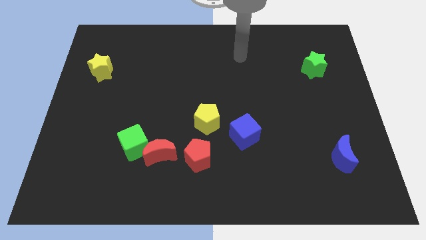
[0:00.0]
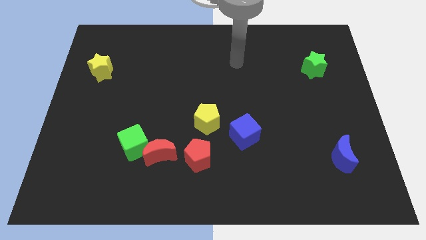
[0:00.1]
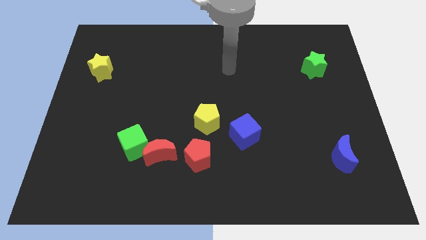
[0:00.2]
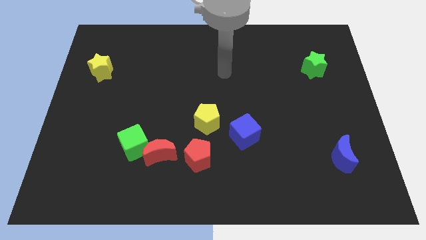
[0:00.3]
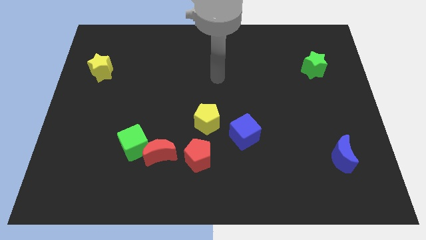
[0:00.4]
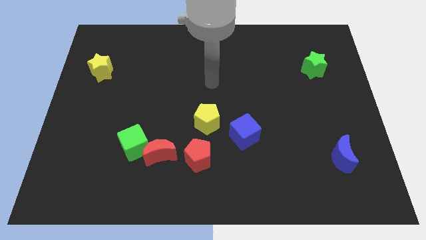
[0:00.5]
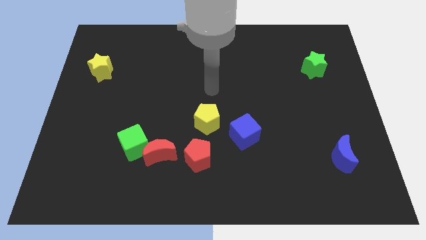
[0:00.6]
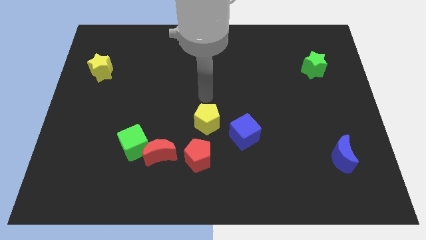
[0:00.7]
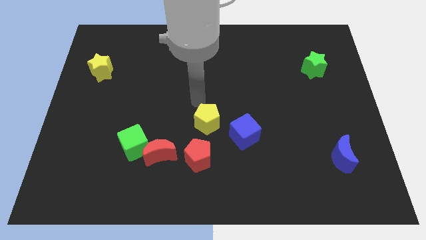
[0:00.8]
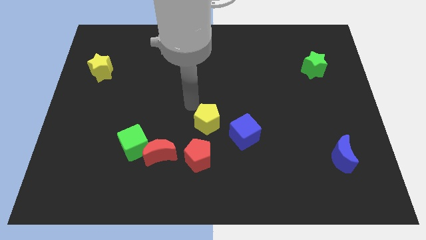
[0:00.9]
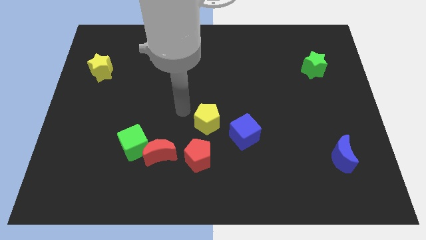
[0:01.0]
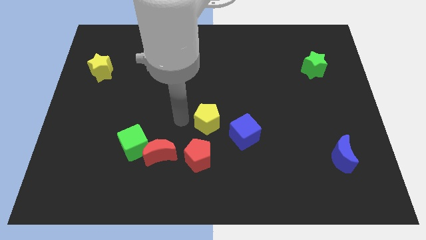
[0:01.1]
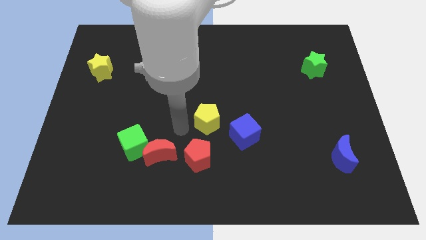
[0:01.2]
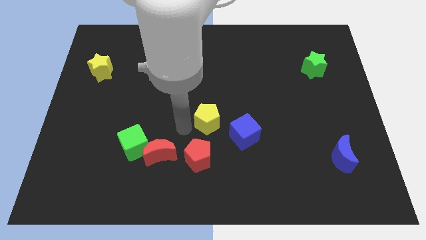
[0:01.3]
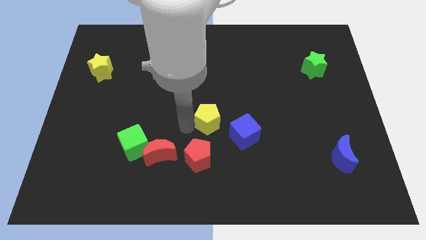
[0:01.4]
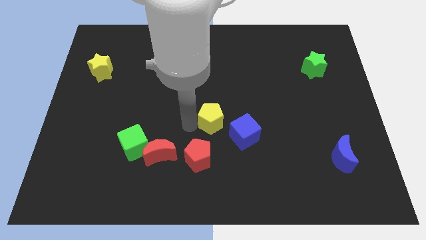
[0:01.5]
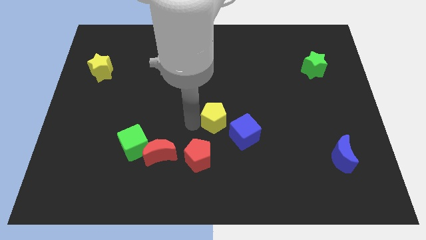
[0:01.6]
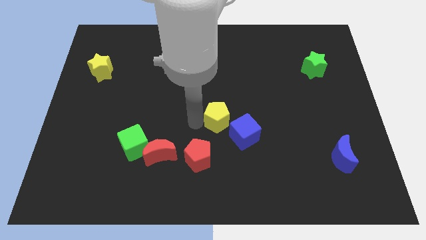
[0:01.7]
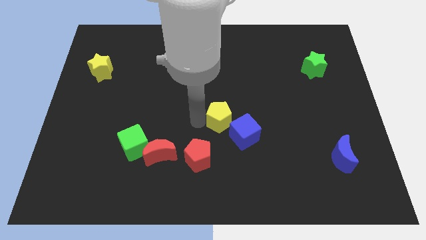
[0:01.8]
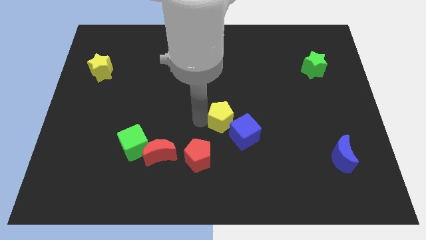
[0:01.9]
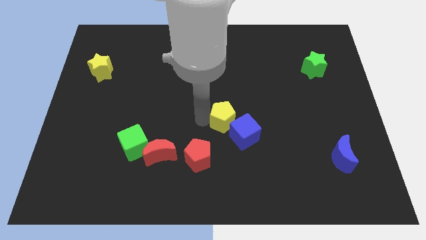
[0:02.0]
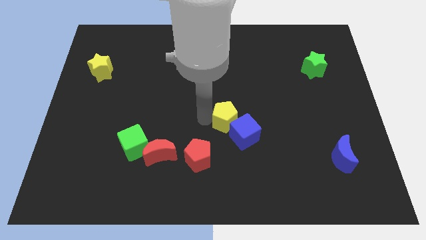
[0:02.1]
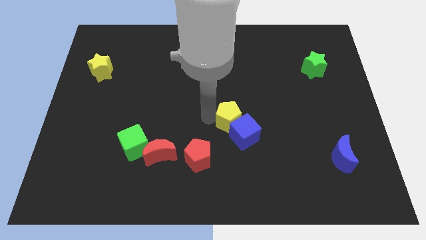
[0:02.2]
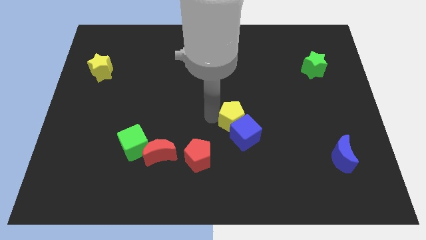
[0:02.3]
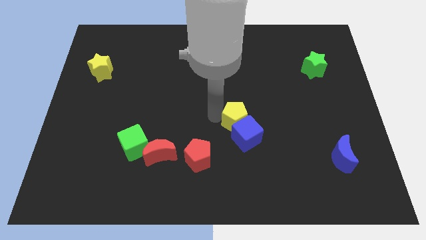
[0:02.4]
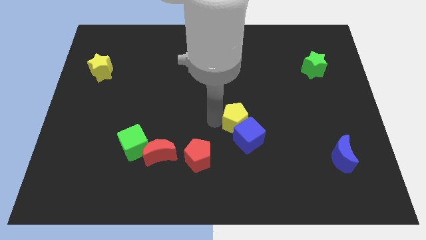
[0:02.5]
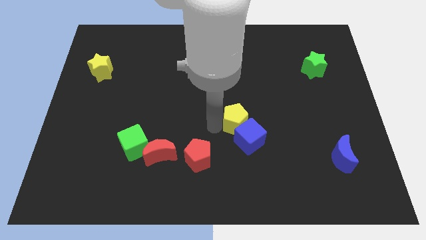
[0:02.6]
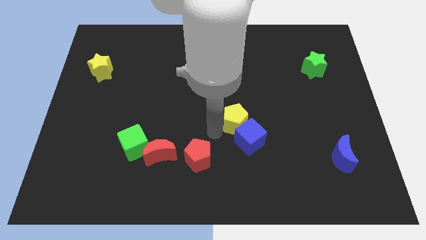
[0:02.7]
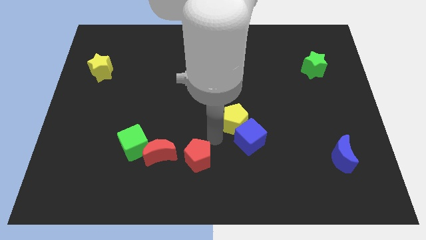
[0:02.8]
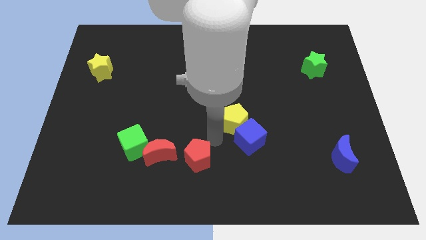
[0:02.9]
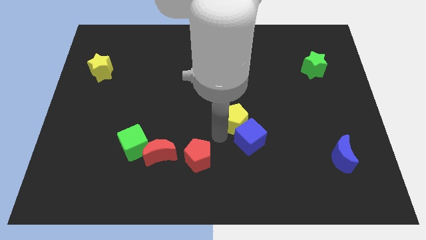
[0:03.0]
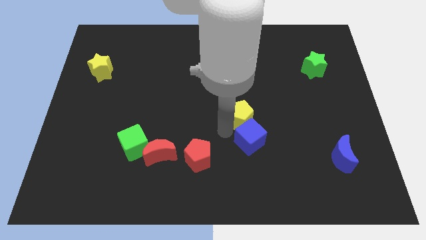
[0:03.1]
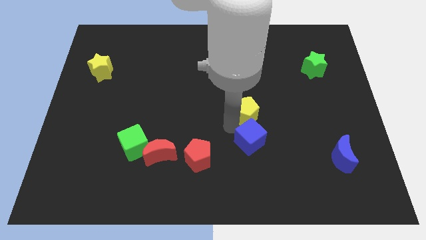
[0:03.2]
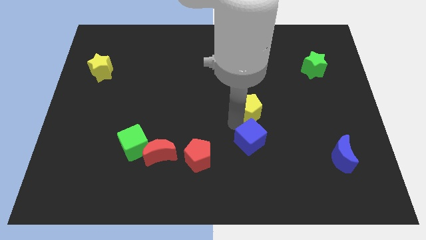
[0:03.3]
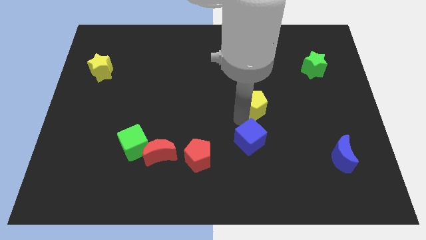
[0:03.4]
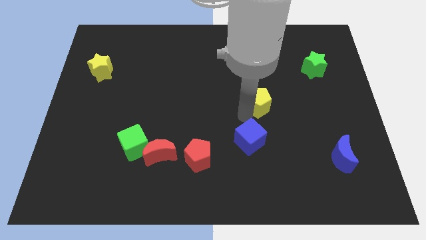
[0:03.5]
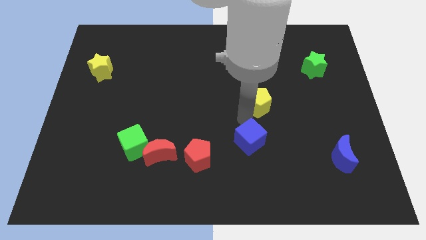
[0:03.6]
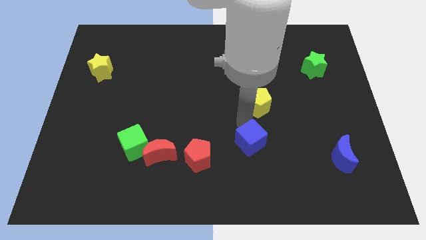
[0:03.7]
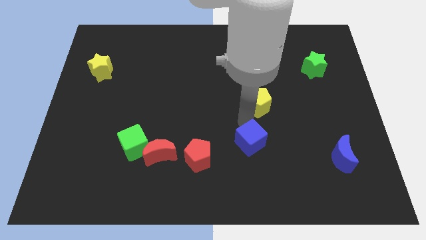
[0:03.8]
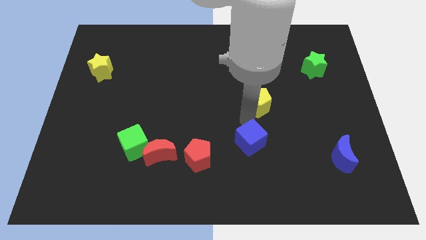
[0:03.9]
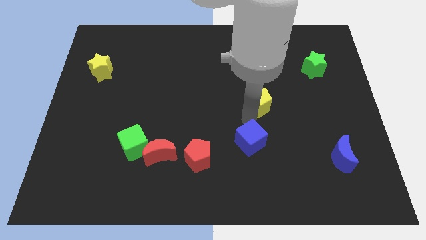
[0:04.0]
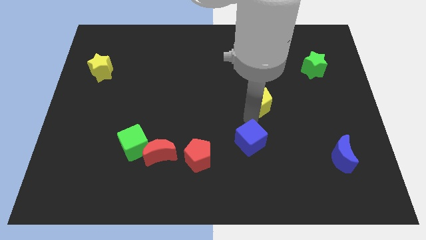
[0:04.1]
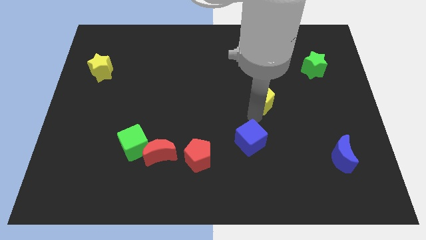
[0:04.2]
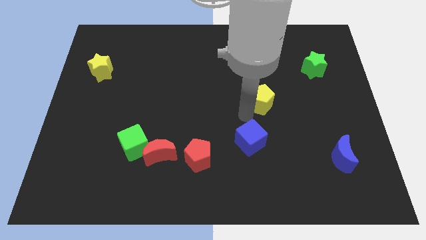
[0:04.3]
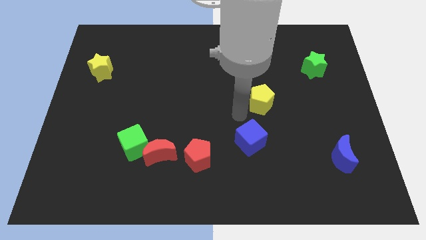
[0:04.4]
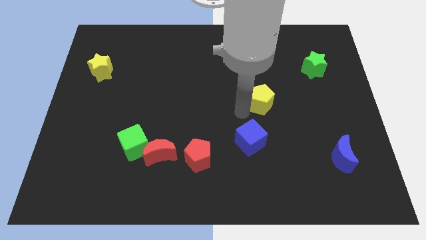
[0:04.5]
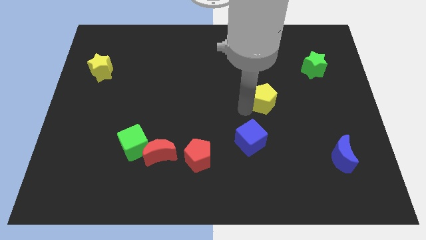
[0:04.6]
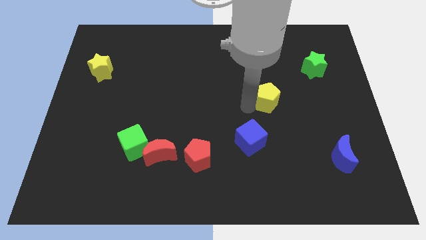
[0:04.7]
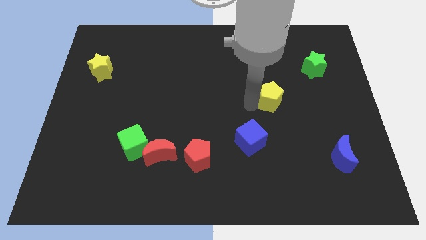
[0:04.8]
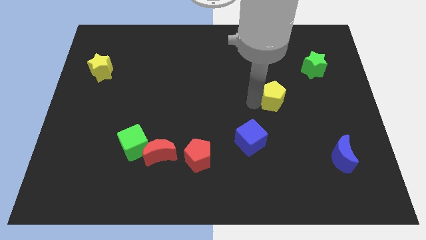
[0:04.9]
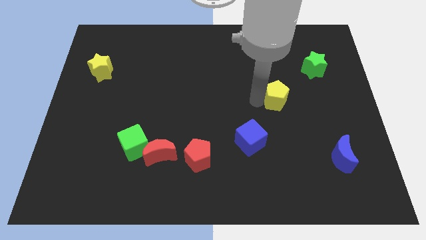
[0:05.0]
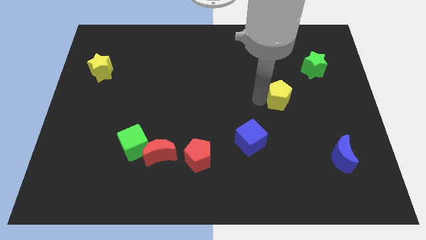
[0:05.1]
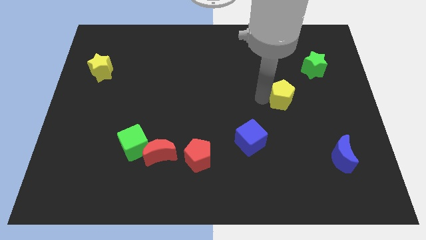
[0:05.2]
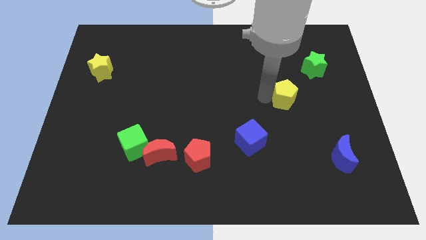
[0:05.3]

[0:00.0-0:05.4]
slide the yellow pentagon to the bottom left of the green star

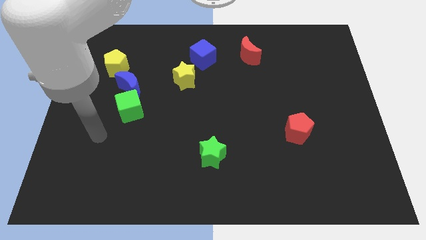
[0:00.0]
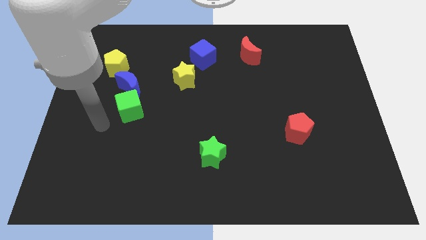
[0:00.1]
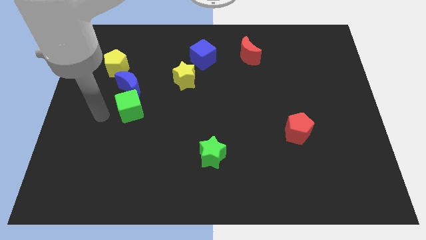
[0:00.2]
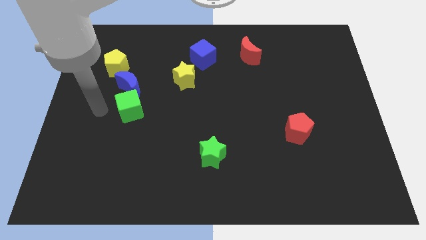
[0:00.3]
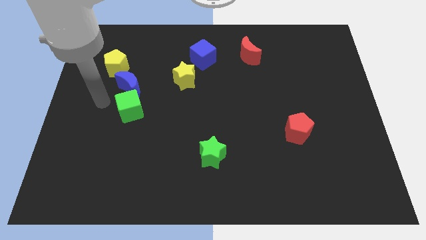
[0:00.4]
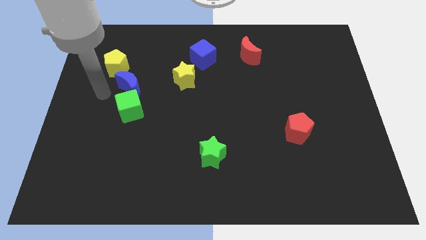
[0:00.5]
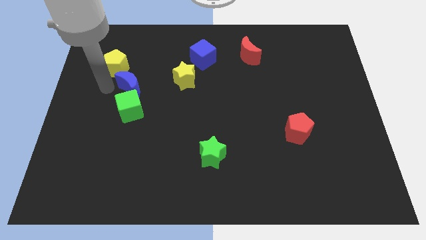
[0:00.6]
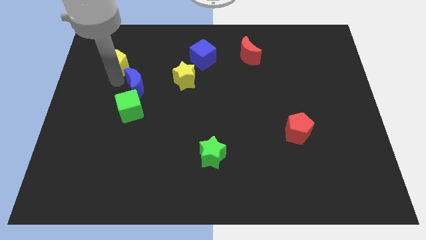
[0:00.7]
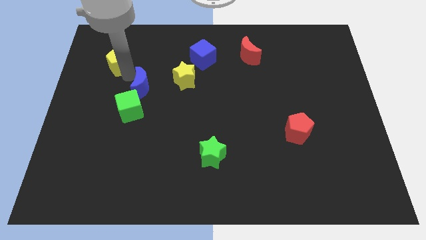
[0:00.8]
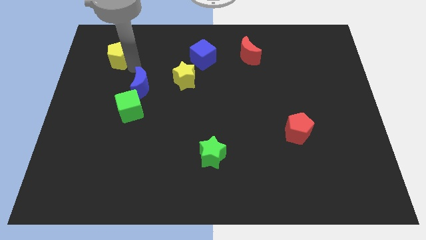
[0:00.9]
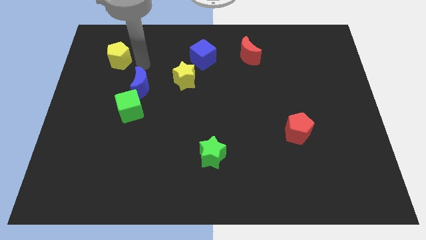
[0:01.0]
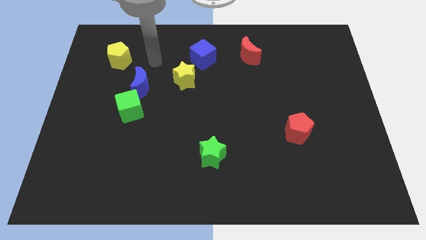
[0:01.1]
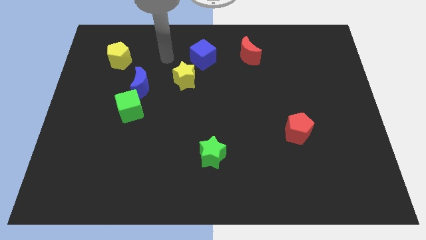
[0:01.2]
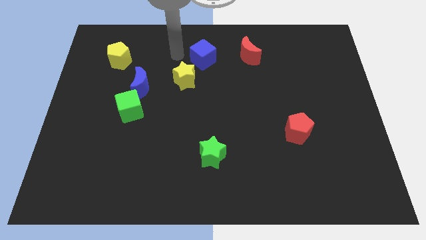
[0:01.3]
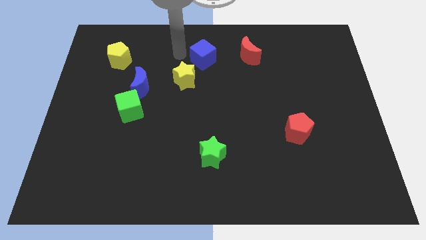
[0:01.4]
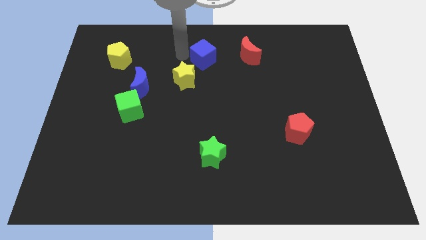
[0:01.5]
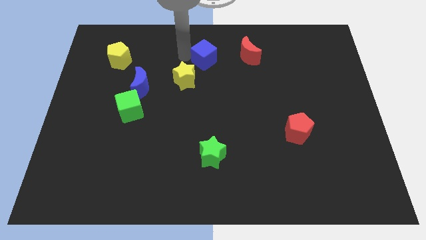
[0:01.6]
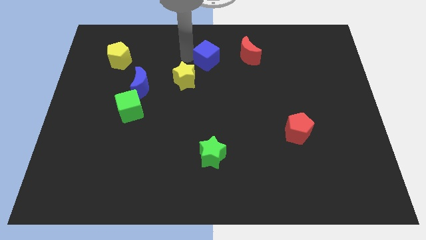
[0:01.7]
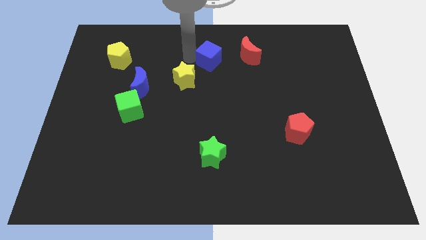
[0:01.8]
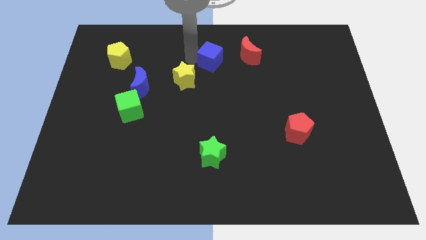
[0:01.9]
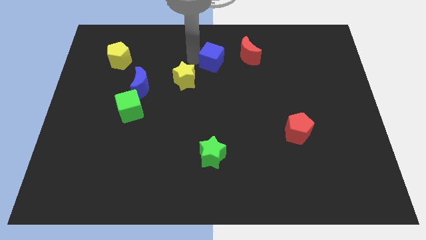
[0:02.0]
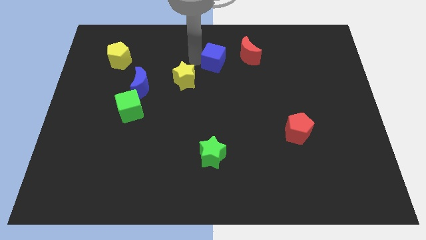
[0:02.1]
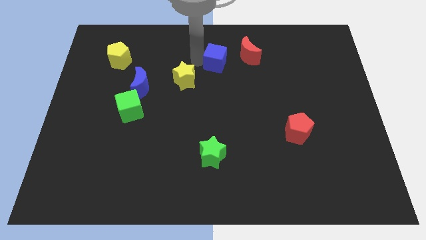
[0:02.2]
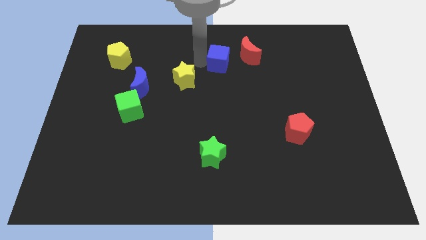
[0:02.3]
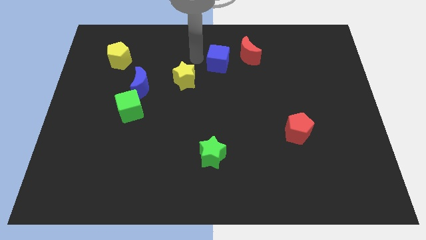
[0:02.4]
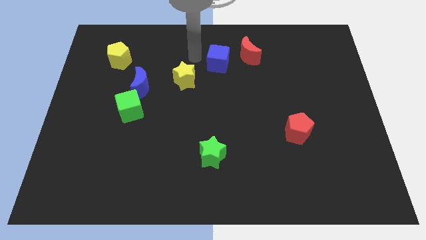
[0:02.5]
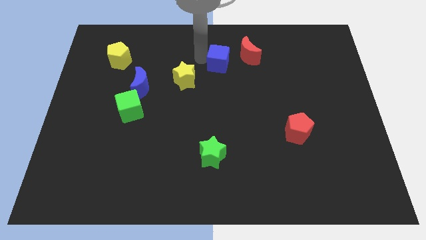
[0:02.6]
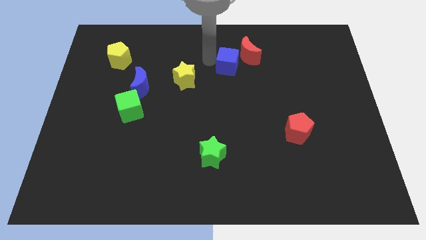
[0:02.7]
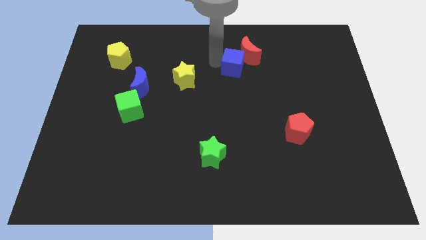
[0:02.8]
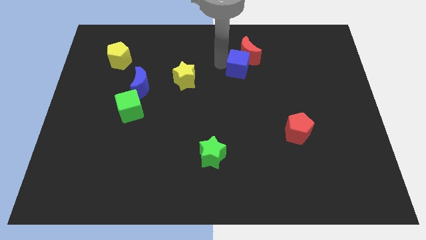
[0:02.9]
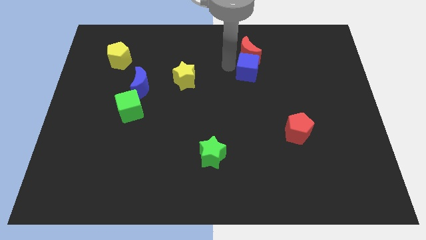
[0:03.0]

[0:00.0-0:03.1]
slide the blue cube to the bottom right side of the red moon
